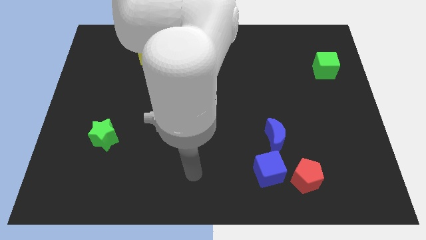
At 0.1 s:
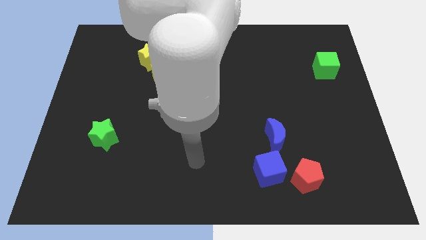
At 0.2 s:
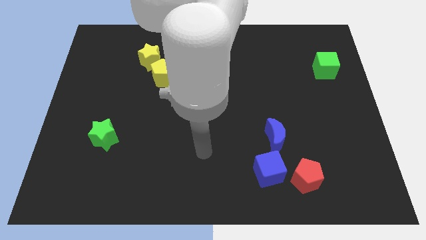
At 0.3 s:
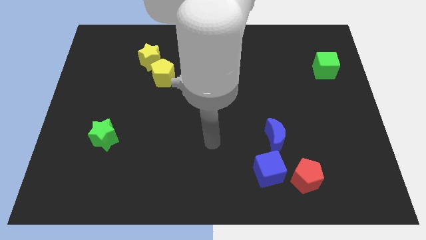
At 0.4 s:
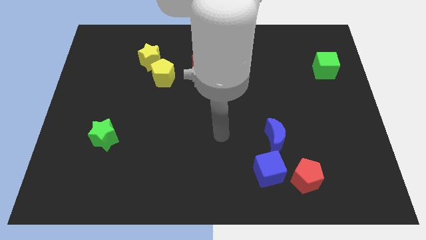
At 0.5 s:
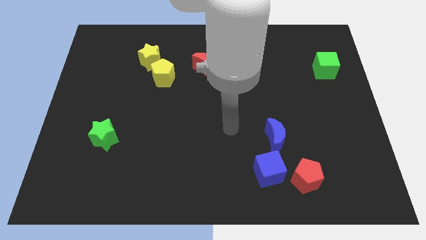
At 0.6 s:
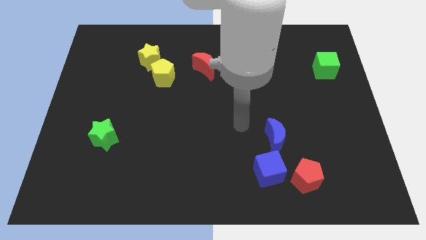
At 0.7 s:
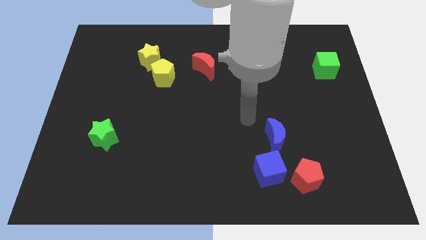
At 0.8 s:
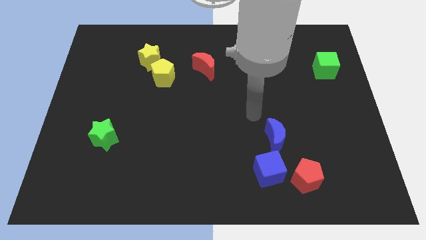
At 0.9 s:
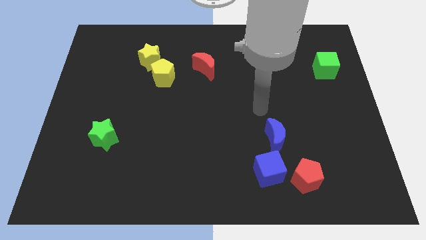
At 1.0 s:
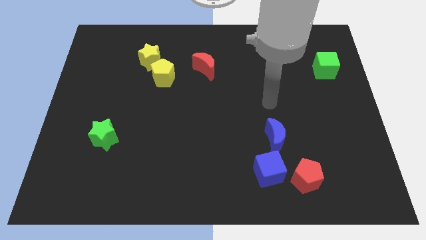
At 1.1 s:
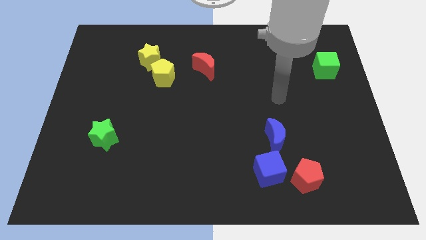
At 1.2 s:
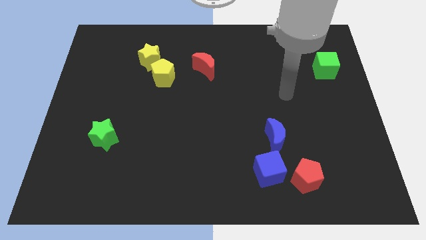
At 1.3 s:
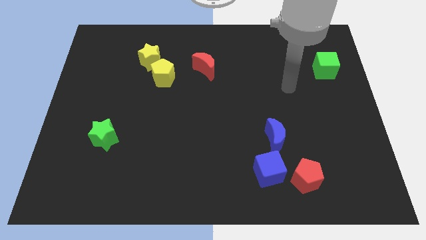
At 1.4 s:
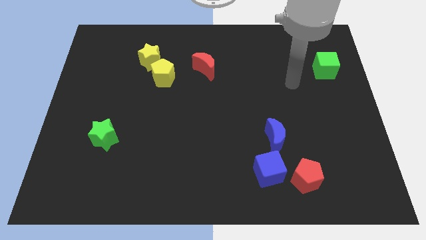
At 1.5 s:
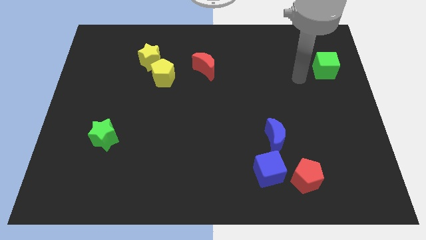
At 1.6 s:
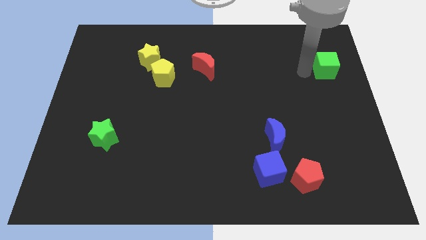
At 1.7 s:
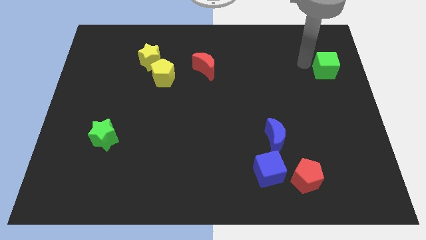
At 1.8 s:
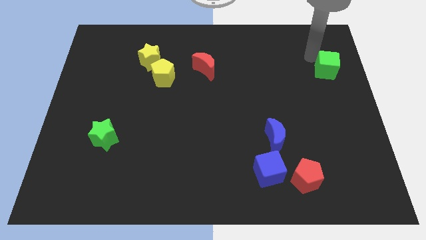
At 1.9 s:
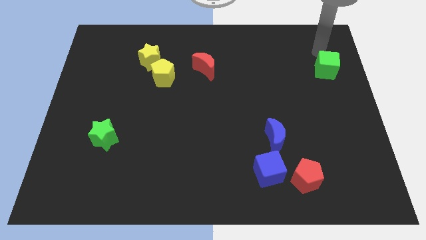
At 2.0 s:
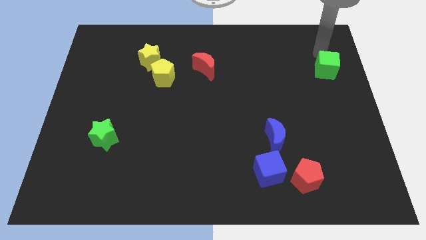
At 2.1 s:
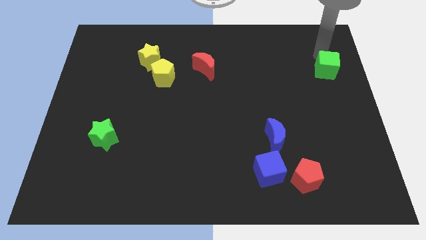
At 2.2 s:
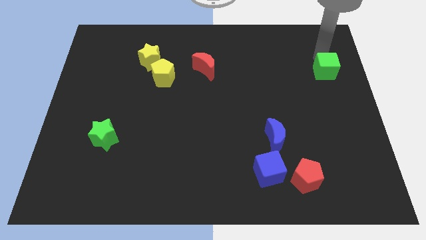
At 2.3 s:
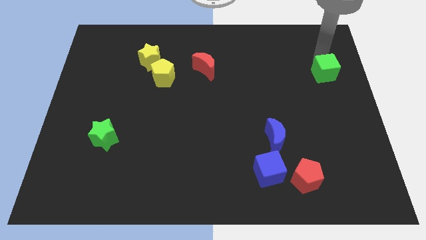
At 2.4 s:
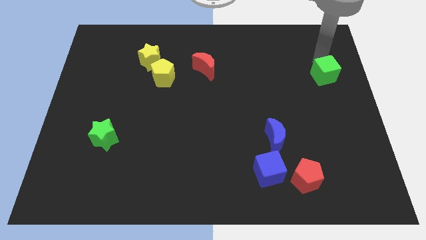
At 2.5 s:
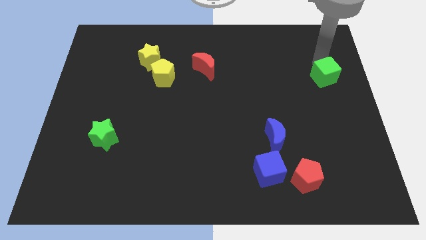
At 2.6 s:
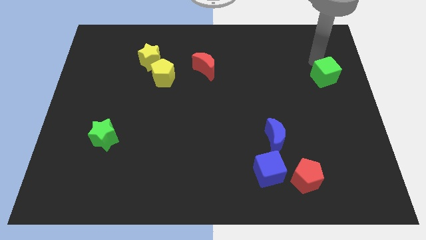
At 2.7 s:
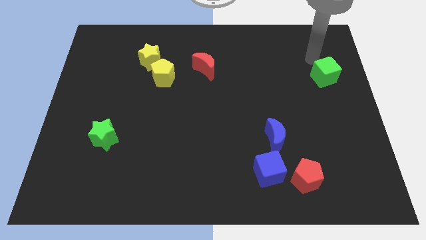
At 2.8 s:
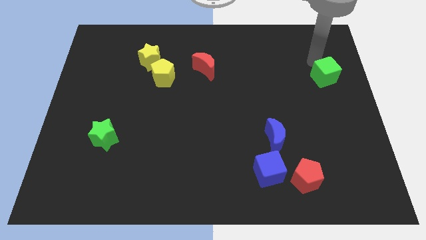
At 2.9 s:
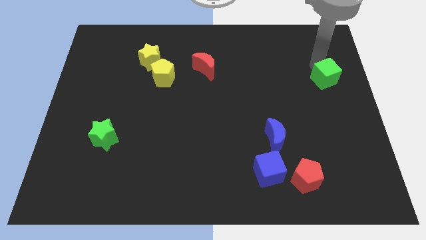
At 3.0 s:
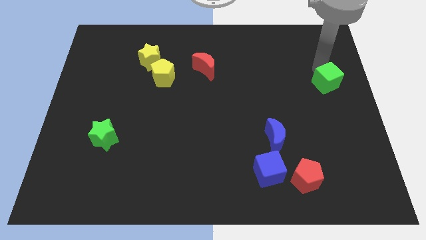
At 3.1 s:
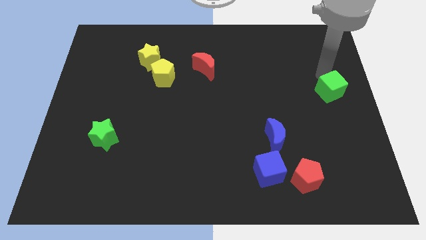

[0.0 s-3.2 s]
slightly slide the green cube down

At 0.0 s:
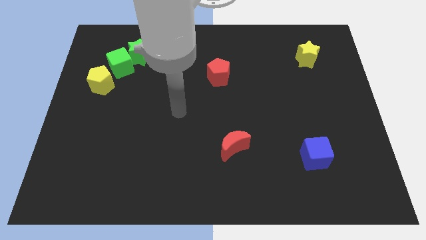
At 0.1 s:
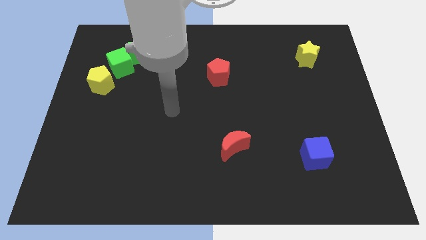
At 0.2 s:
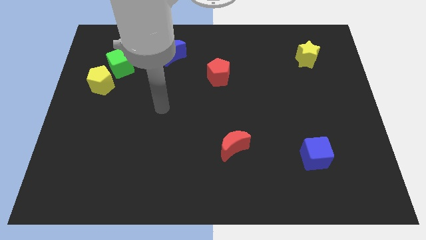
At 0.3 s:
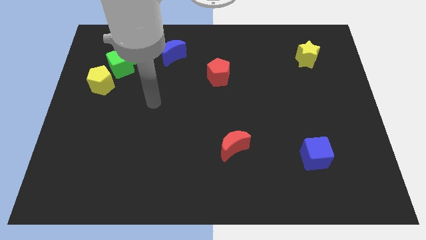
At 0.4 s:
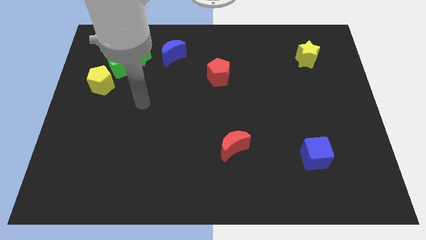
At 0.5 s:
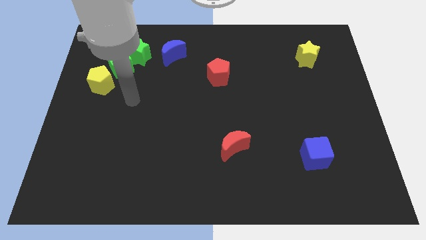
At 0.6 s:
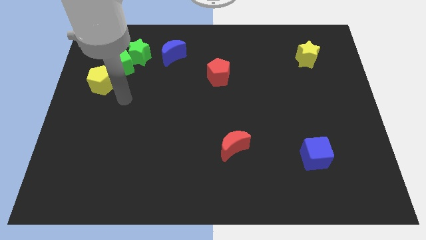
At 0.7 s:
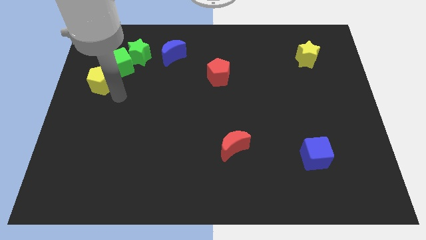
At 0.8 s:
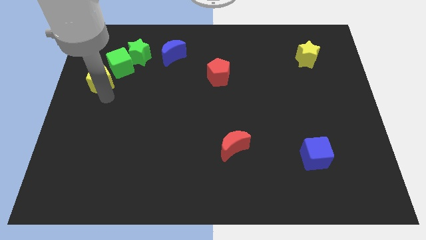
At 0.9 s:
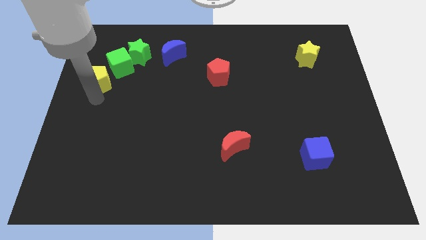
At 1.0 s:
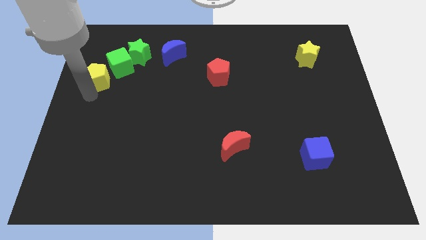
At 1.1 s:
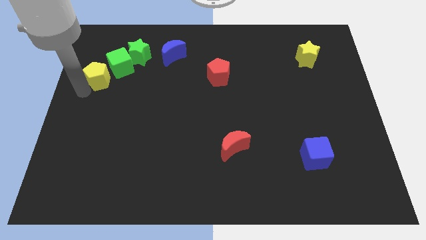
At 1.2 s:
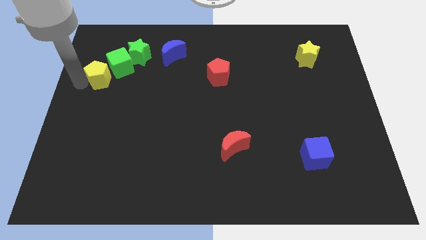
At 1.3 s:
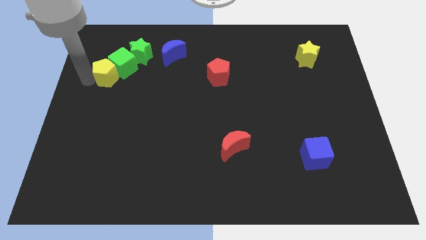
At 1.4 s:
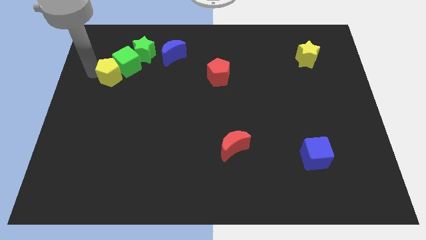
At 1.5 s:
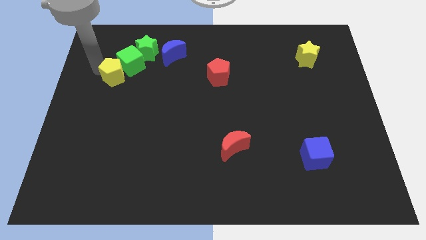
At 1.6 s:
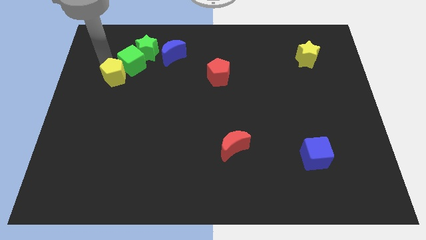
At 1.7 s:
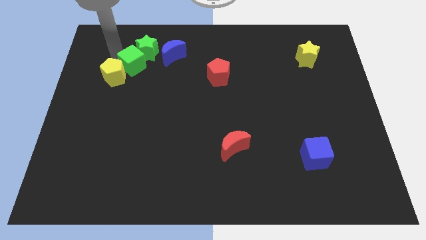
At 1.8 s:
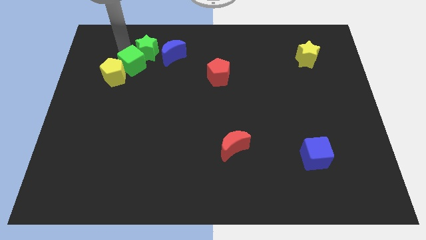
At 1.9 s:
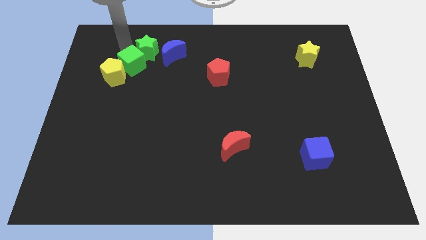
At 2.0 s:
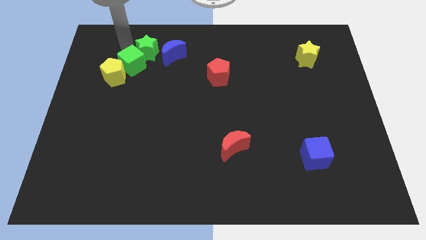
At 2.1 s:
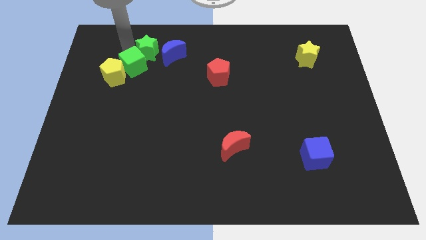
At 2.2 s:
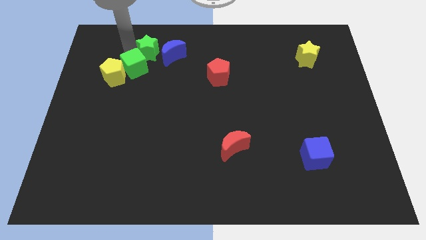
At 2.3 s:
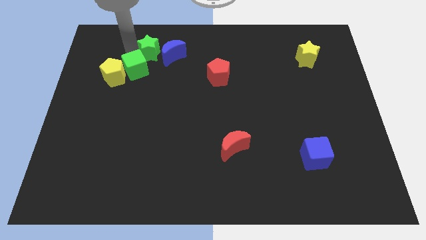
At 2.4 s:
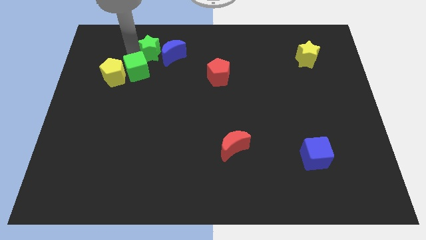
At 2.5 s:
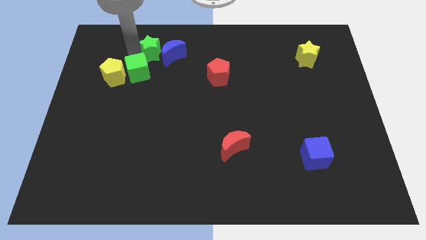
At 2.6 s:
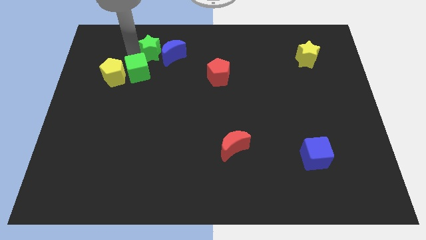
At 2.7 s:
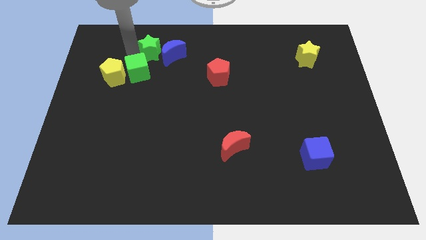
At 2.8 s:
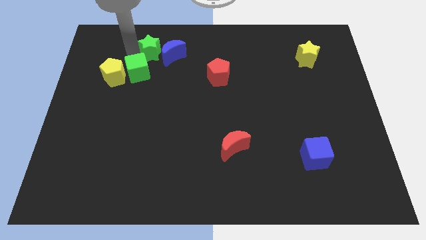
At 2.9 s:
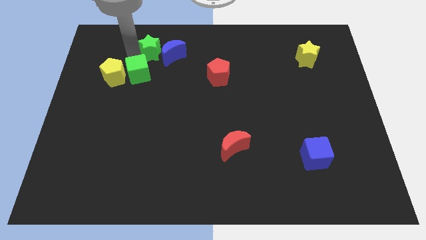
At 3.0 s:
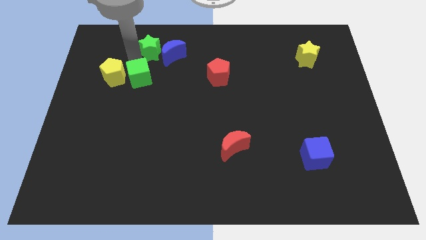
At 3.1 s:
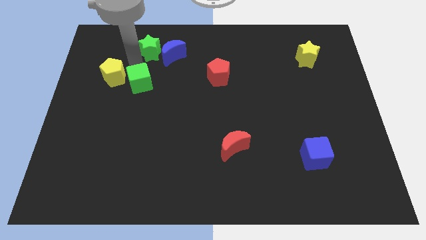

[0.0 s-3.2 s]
slightly move the green cube downwards and right

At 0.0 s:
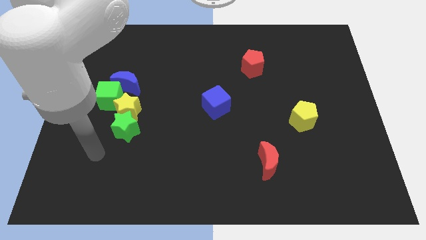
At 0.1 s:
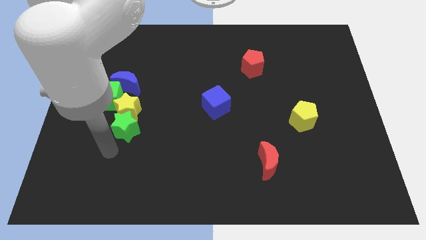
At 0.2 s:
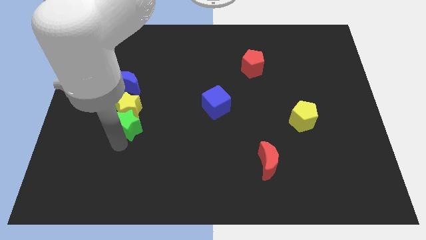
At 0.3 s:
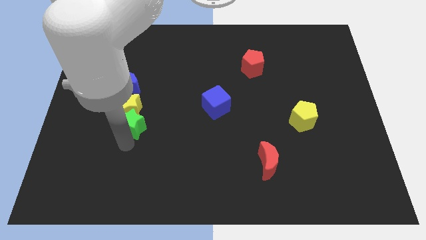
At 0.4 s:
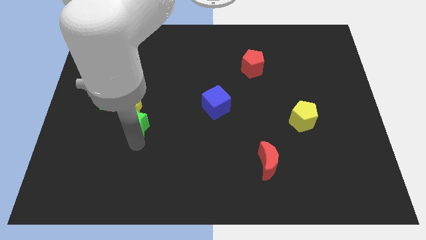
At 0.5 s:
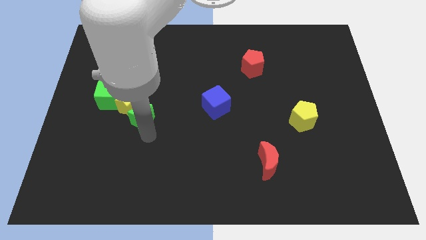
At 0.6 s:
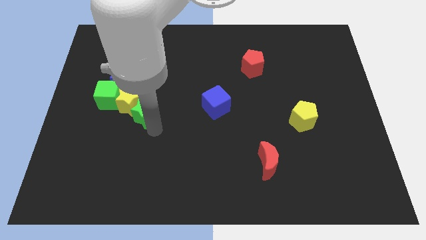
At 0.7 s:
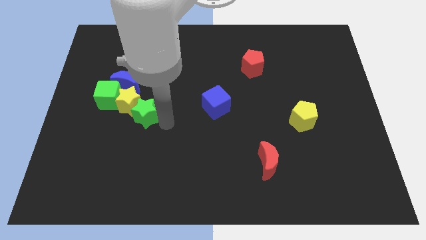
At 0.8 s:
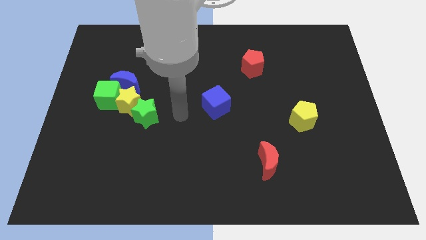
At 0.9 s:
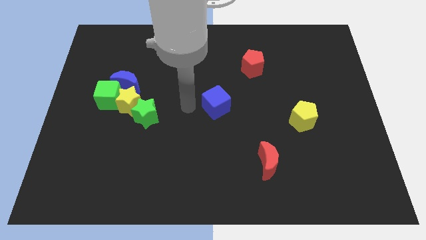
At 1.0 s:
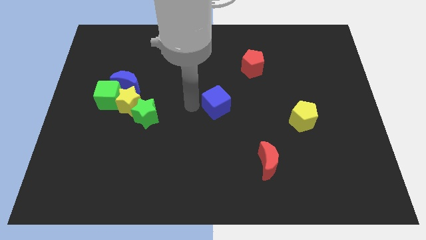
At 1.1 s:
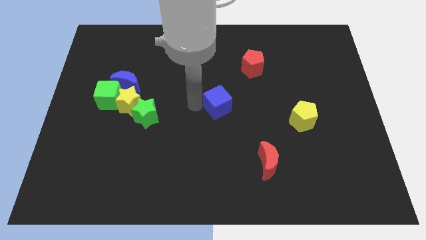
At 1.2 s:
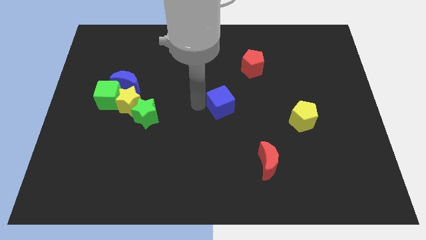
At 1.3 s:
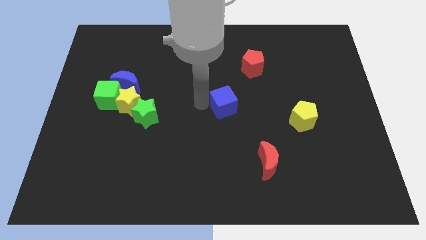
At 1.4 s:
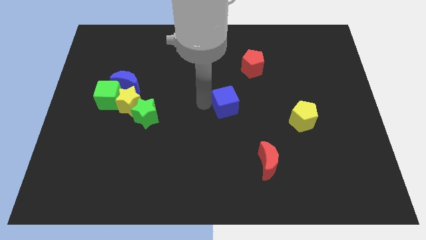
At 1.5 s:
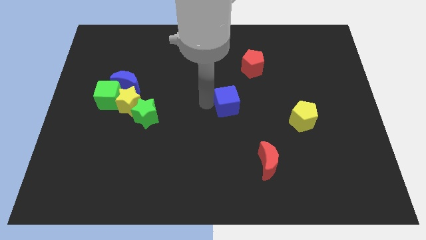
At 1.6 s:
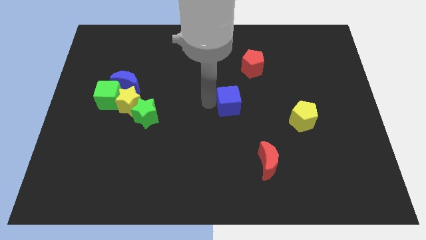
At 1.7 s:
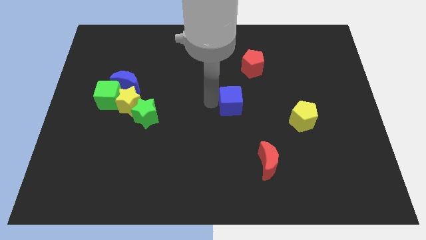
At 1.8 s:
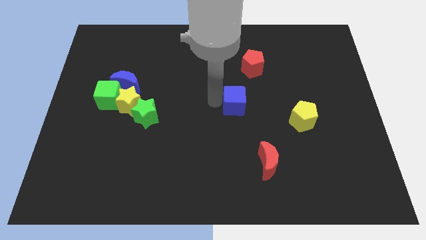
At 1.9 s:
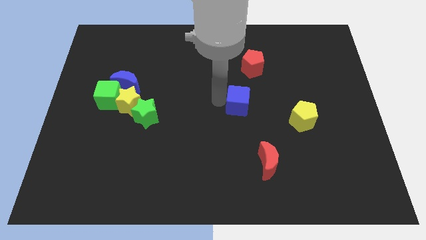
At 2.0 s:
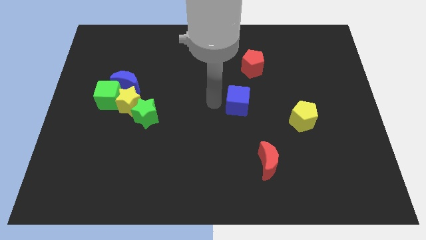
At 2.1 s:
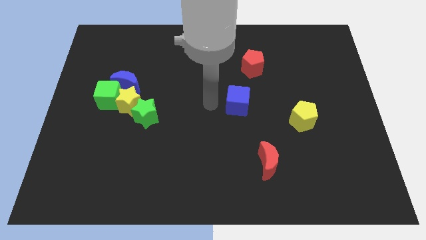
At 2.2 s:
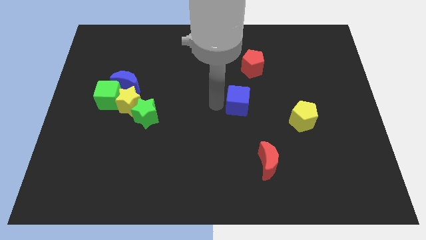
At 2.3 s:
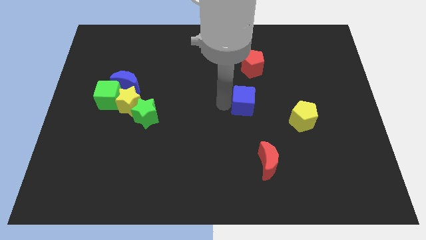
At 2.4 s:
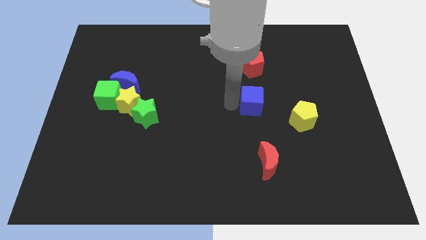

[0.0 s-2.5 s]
move the blue cube a little bit right
